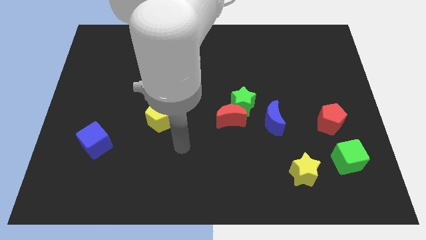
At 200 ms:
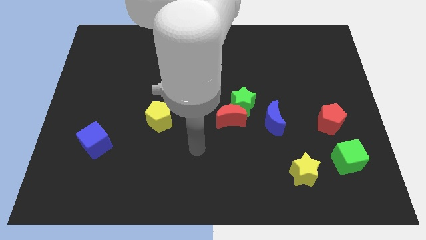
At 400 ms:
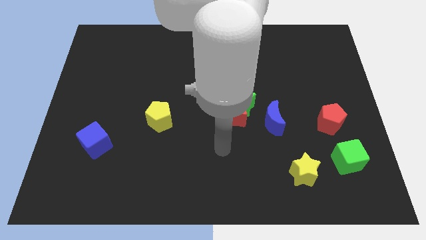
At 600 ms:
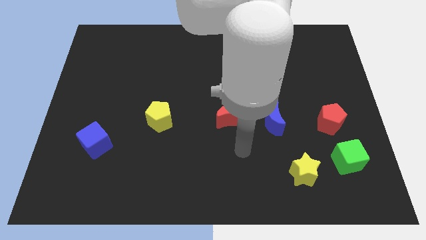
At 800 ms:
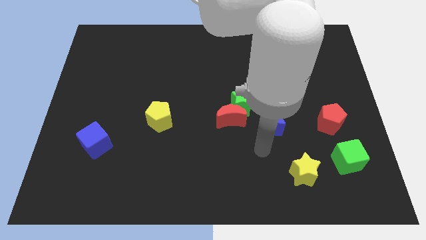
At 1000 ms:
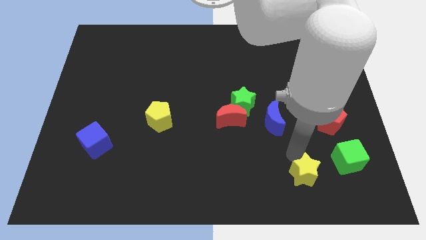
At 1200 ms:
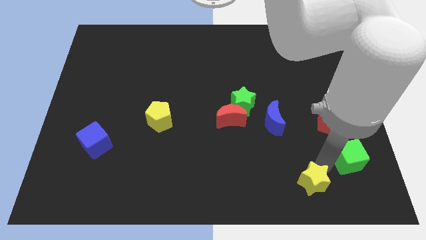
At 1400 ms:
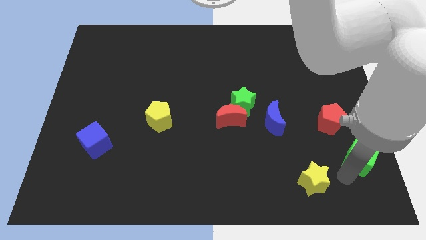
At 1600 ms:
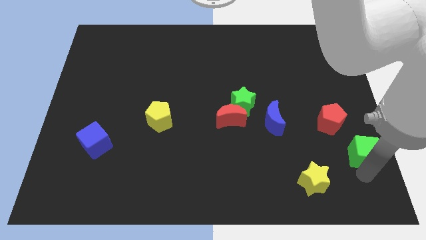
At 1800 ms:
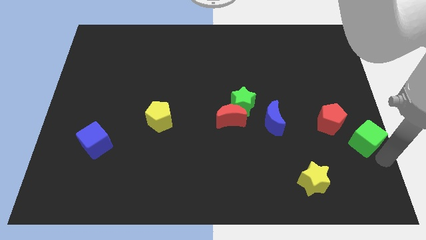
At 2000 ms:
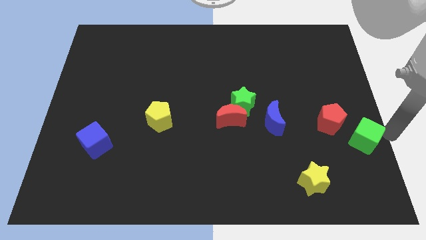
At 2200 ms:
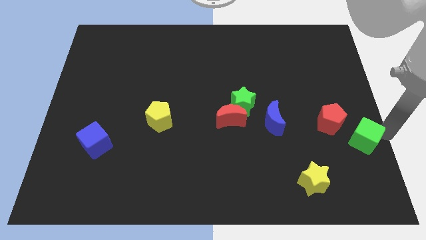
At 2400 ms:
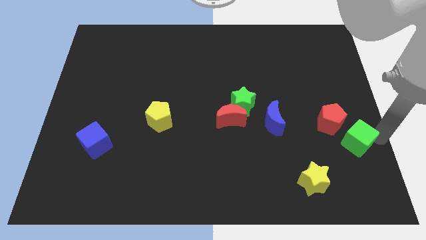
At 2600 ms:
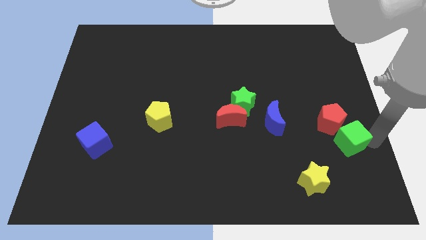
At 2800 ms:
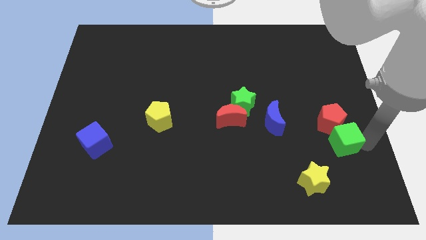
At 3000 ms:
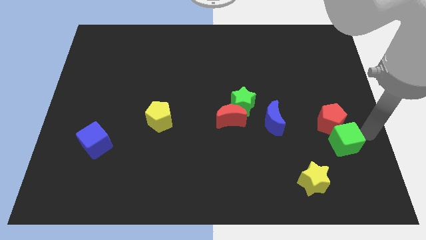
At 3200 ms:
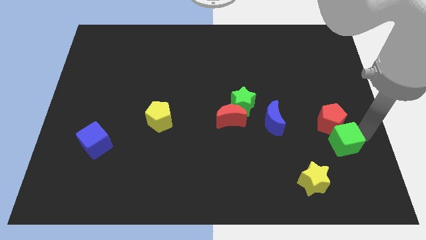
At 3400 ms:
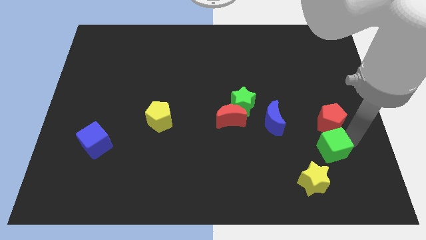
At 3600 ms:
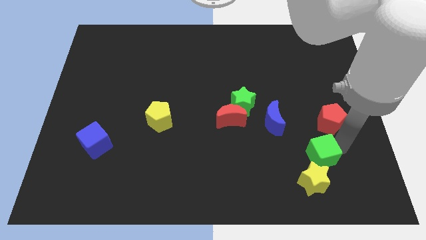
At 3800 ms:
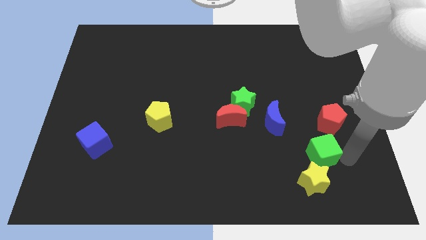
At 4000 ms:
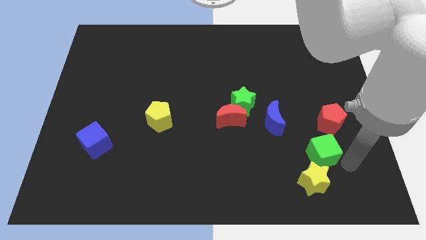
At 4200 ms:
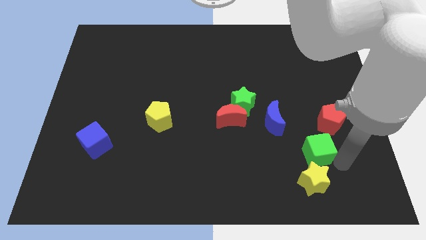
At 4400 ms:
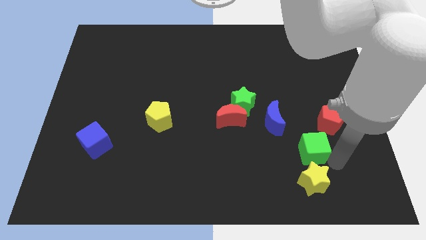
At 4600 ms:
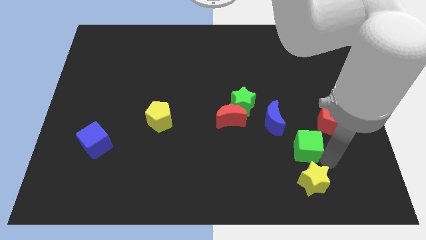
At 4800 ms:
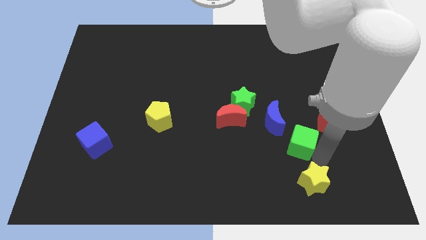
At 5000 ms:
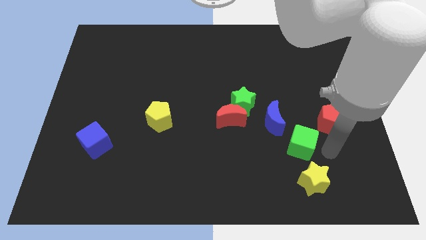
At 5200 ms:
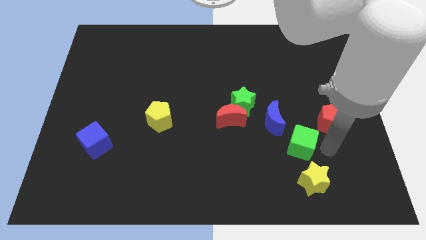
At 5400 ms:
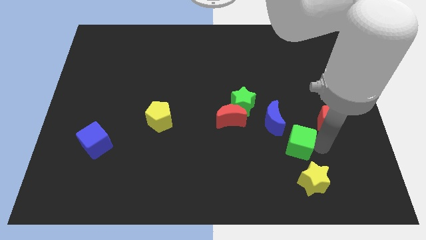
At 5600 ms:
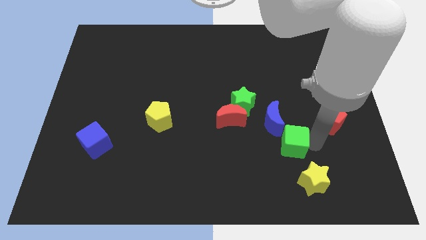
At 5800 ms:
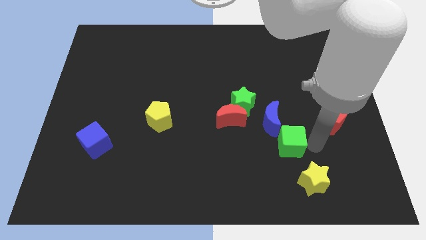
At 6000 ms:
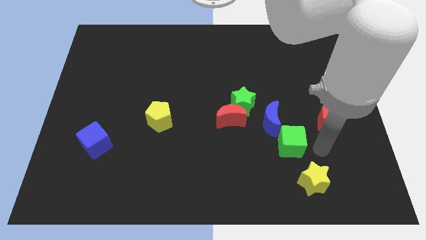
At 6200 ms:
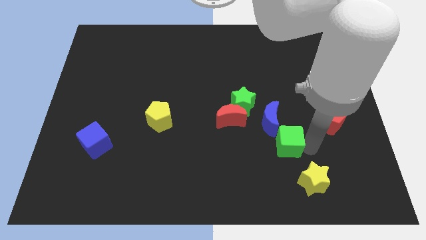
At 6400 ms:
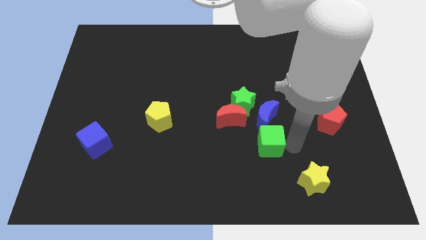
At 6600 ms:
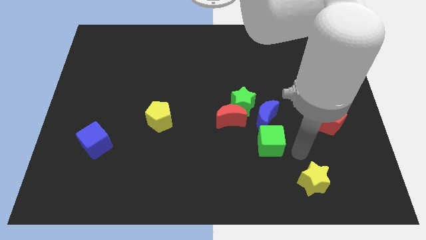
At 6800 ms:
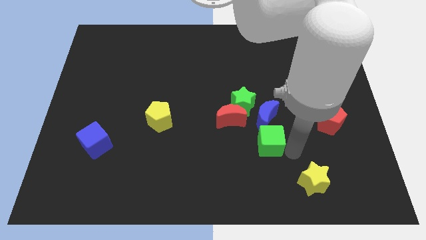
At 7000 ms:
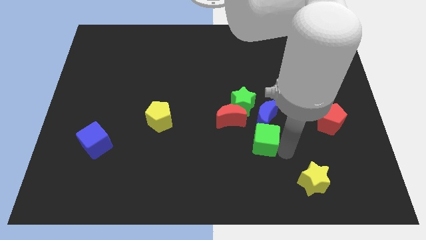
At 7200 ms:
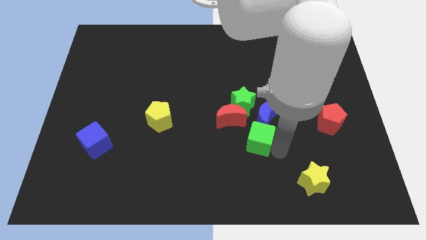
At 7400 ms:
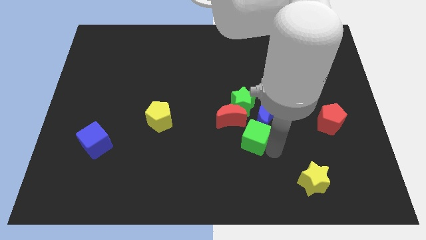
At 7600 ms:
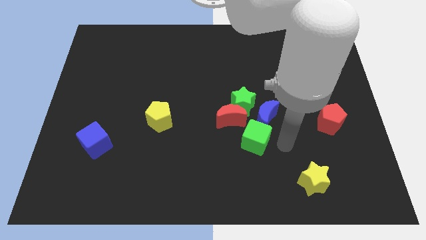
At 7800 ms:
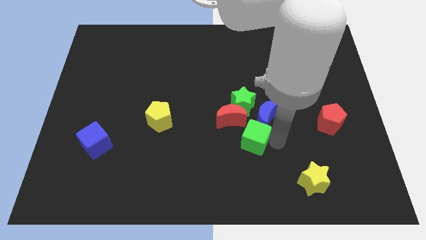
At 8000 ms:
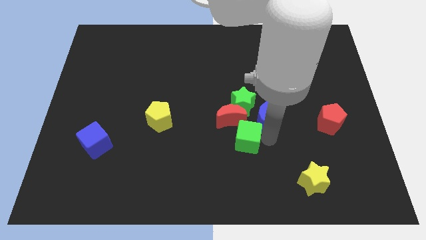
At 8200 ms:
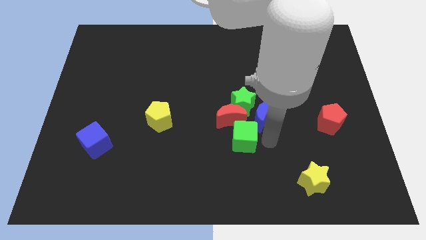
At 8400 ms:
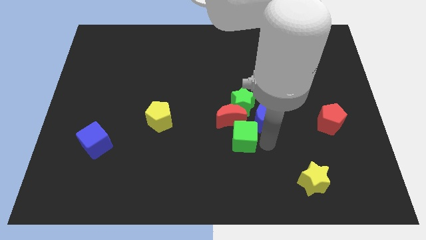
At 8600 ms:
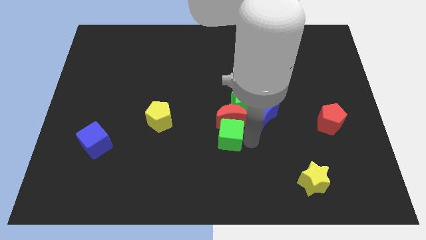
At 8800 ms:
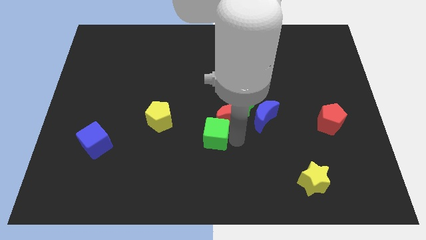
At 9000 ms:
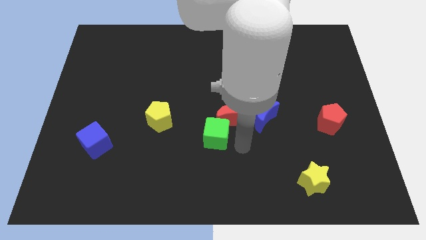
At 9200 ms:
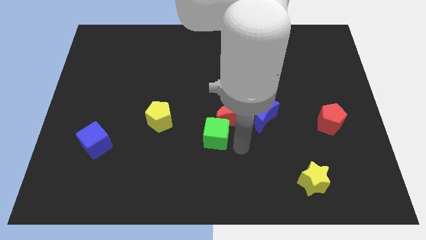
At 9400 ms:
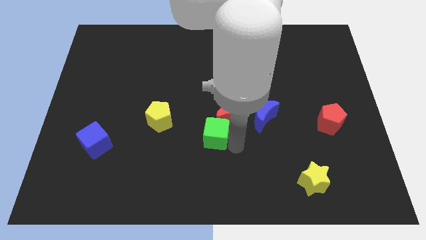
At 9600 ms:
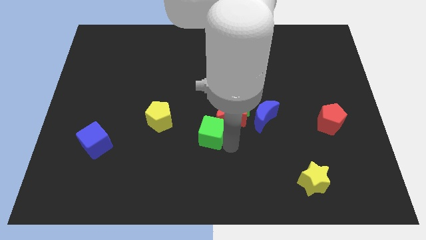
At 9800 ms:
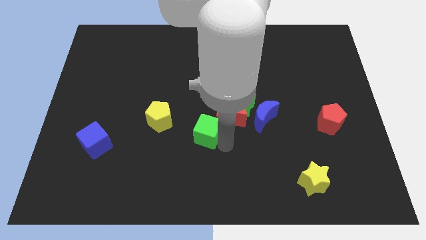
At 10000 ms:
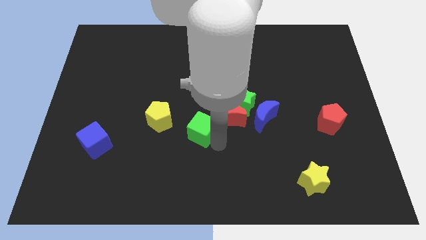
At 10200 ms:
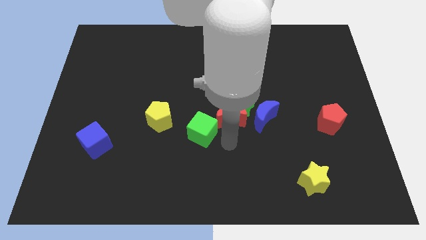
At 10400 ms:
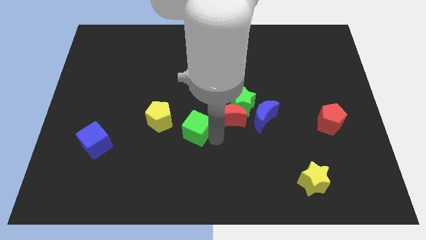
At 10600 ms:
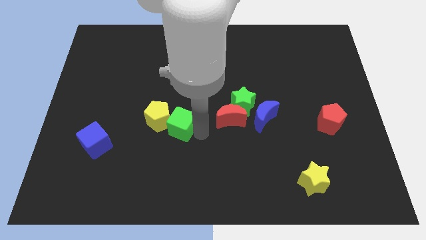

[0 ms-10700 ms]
move the green cube close to the yellow pentagon

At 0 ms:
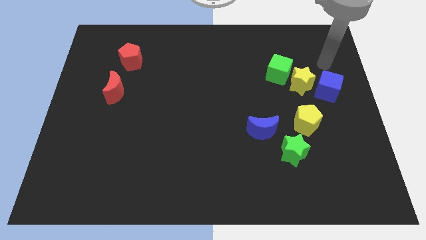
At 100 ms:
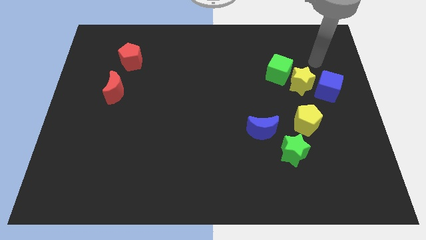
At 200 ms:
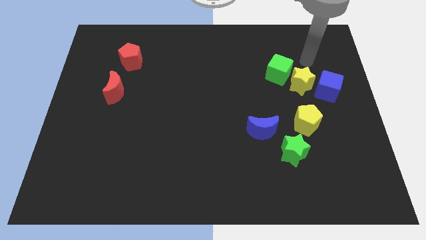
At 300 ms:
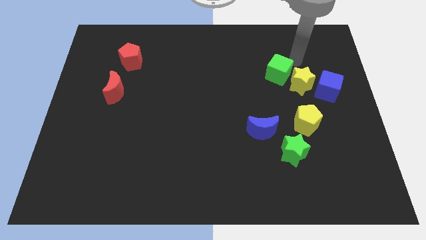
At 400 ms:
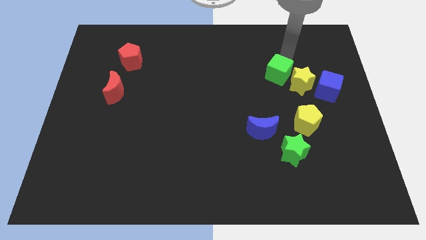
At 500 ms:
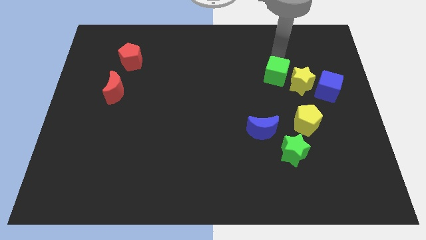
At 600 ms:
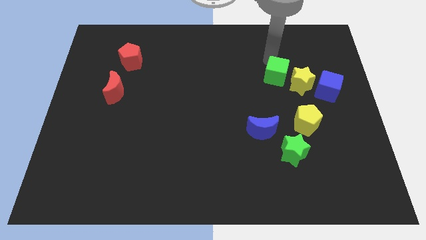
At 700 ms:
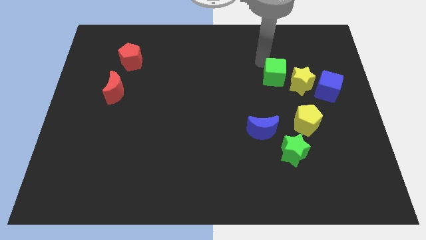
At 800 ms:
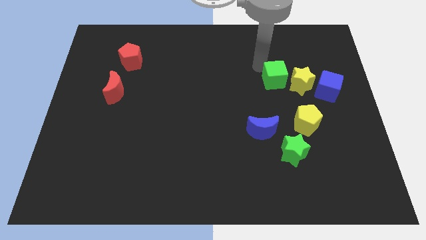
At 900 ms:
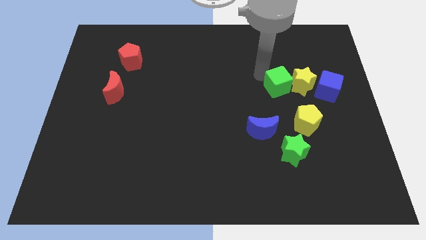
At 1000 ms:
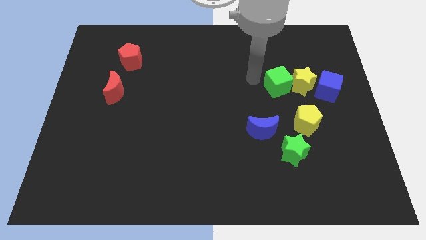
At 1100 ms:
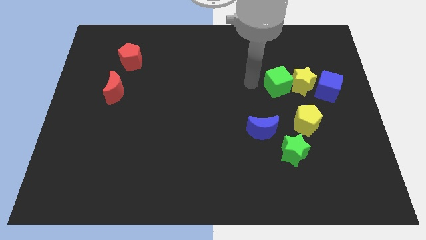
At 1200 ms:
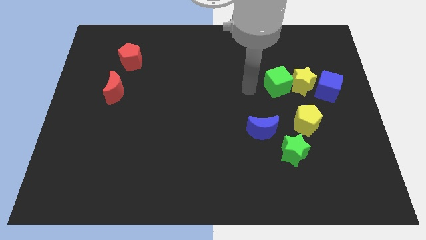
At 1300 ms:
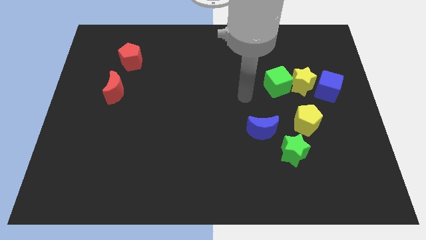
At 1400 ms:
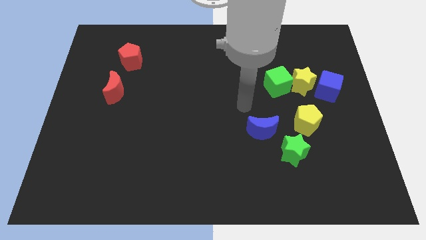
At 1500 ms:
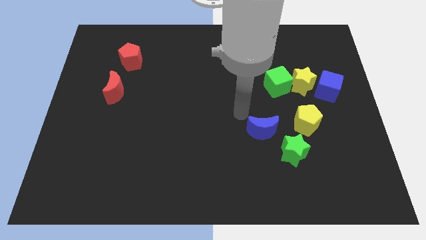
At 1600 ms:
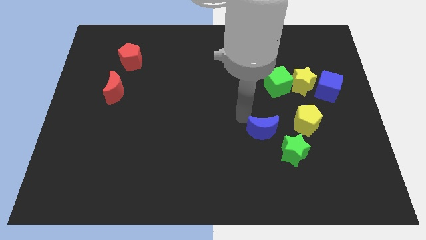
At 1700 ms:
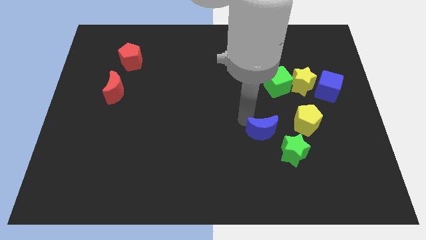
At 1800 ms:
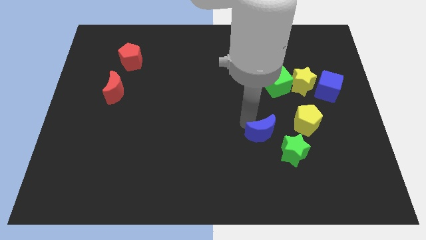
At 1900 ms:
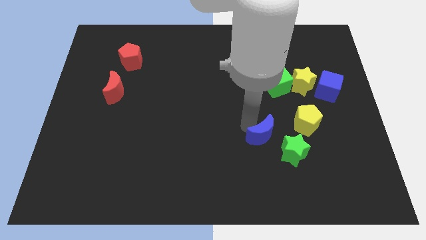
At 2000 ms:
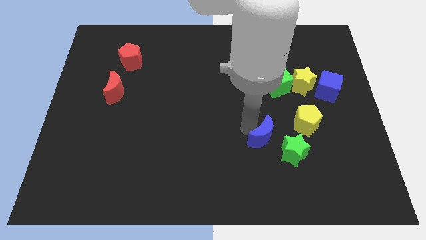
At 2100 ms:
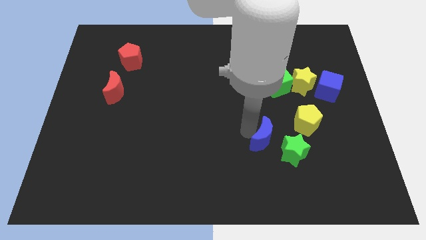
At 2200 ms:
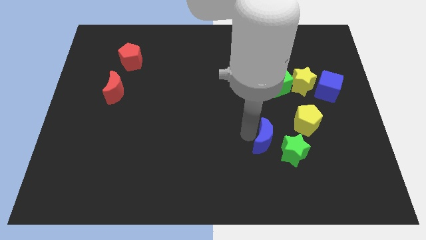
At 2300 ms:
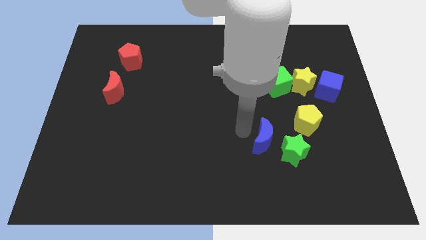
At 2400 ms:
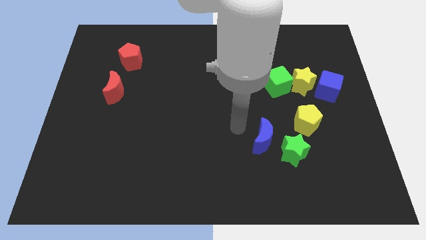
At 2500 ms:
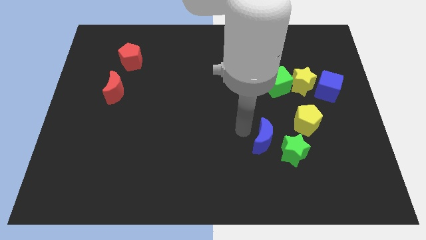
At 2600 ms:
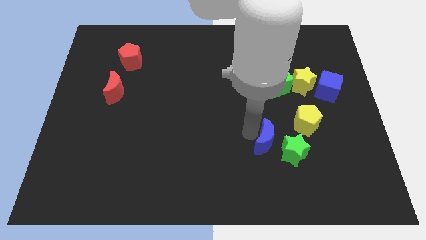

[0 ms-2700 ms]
put the blue moon close to the green star
